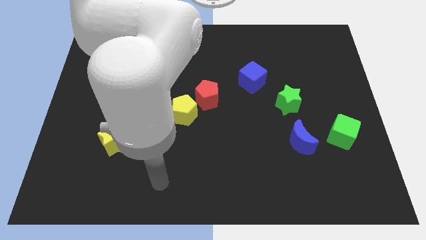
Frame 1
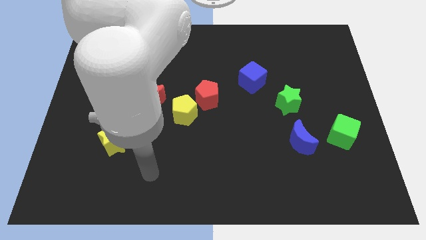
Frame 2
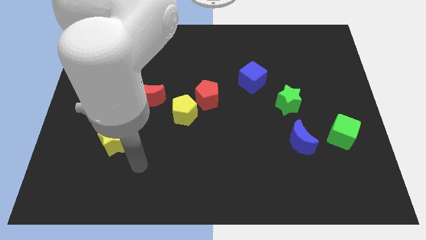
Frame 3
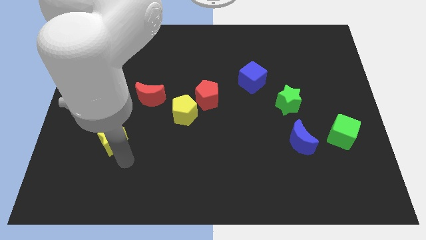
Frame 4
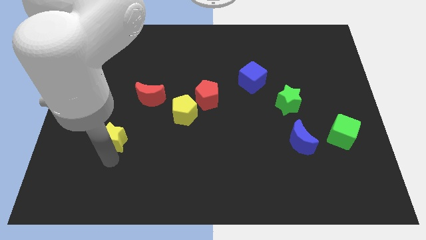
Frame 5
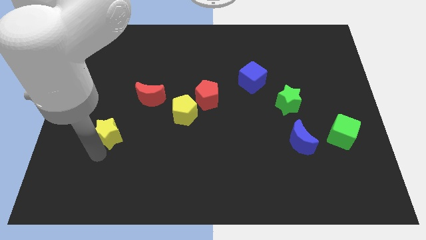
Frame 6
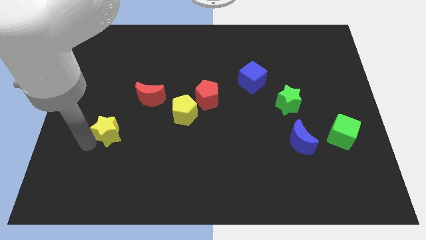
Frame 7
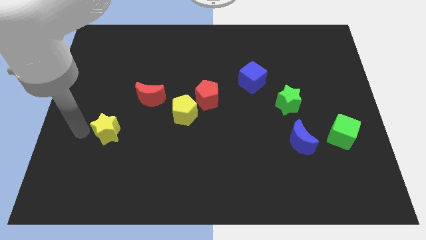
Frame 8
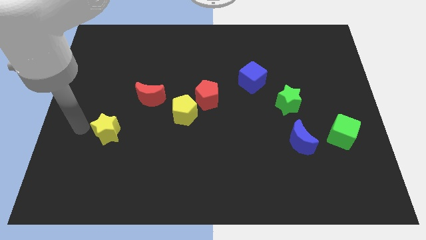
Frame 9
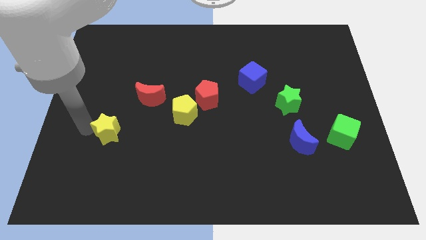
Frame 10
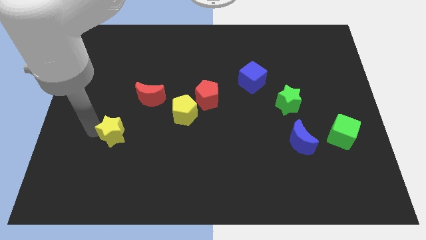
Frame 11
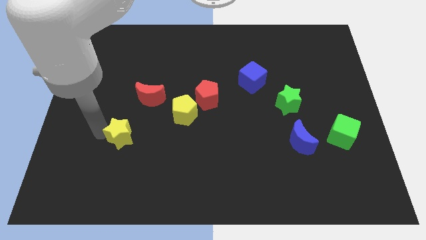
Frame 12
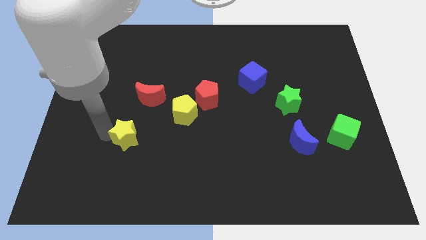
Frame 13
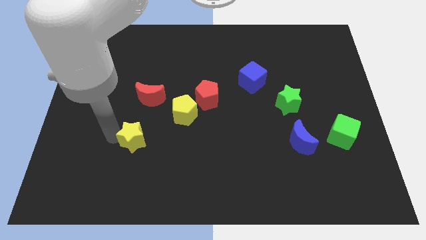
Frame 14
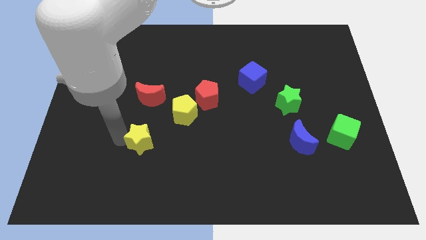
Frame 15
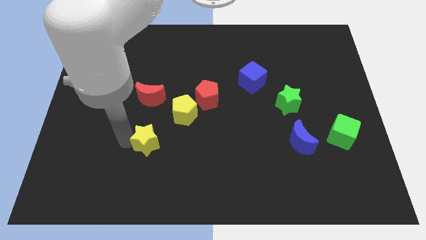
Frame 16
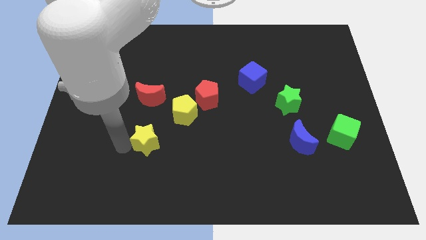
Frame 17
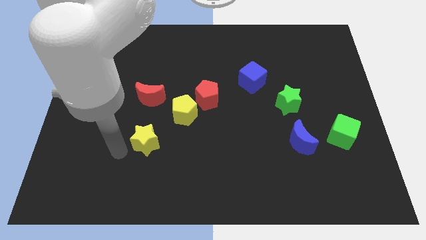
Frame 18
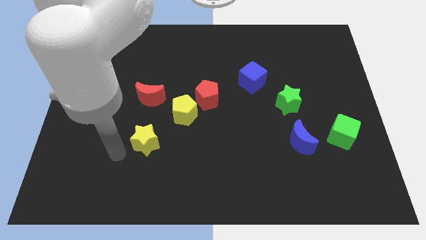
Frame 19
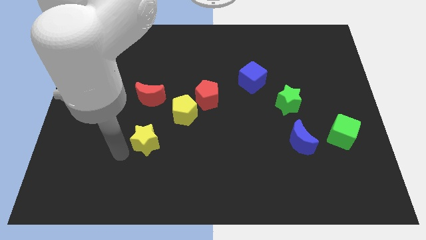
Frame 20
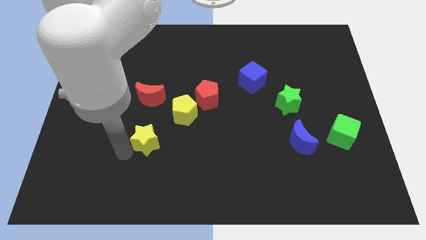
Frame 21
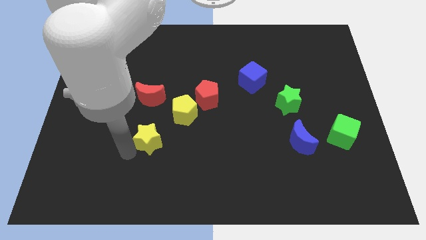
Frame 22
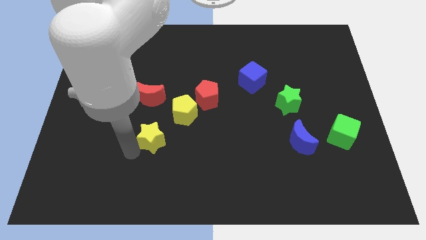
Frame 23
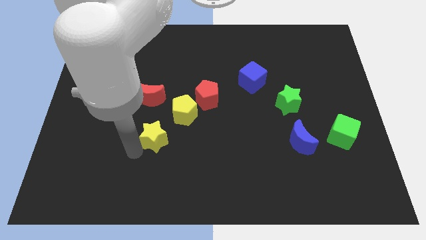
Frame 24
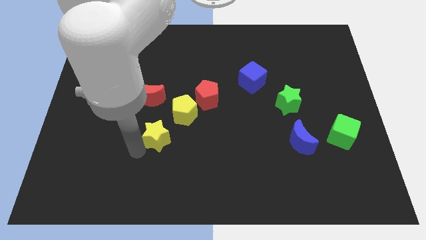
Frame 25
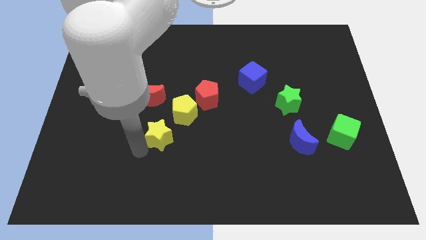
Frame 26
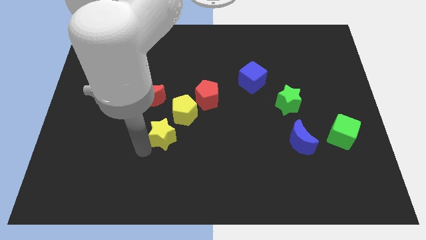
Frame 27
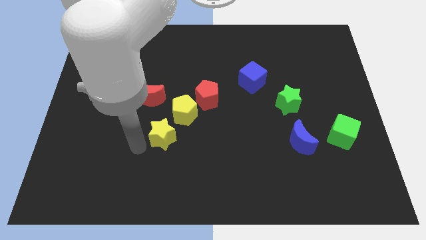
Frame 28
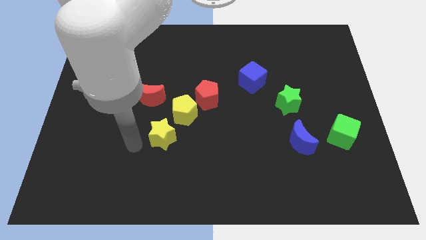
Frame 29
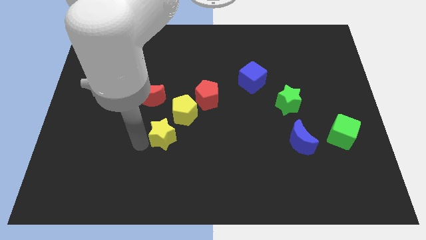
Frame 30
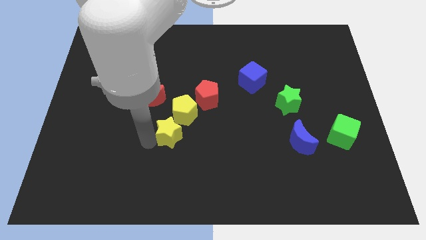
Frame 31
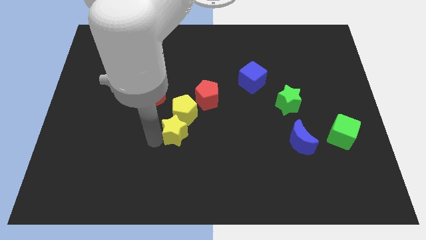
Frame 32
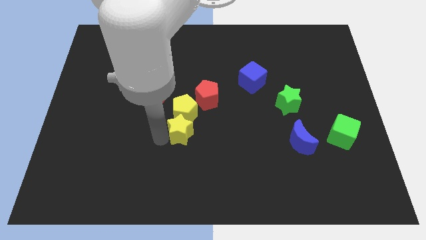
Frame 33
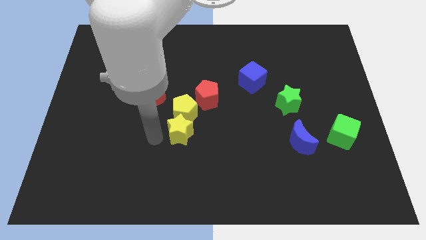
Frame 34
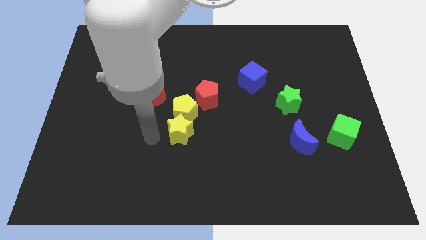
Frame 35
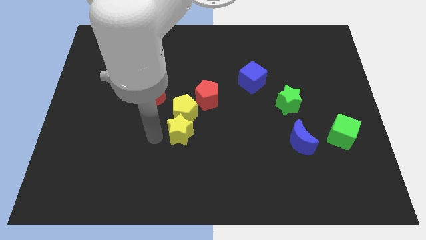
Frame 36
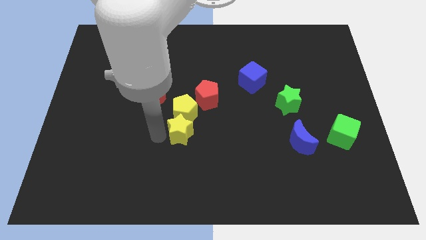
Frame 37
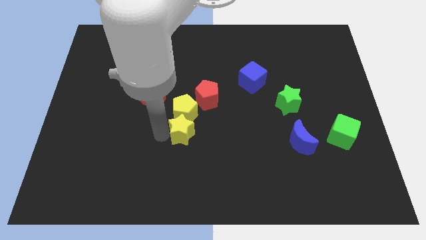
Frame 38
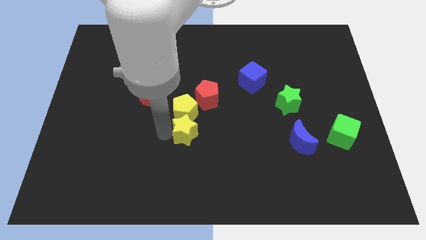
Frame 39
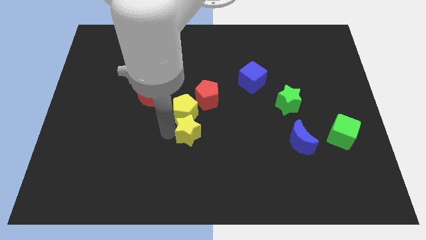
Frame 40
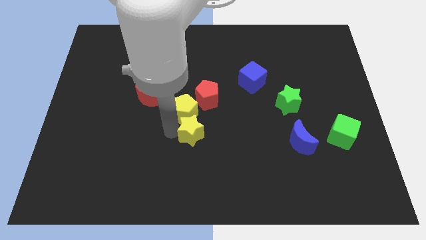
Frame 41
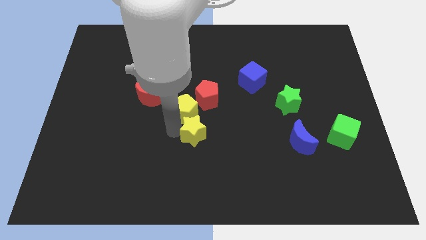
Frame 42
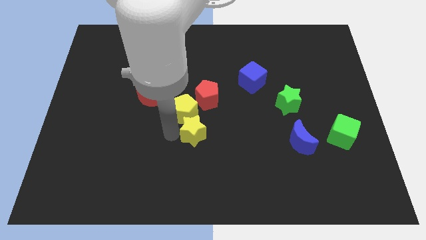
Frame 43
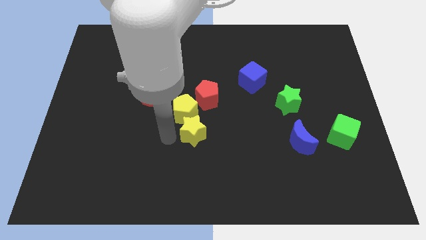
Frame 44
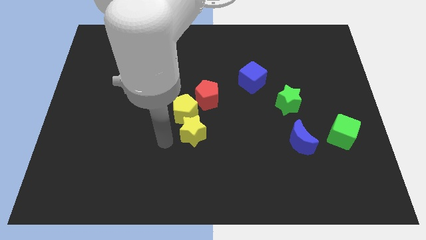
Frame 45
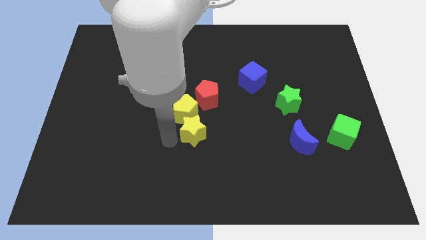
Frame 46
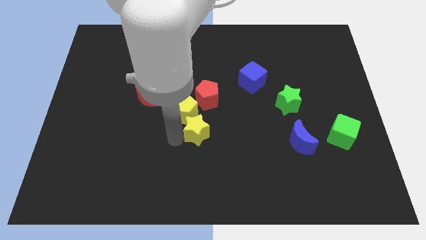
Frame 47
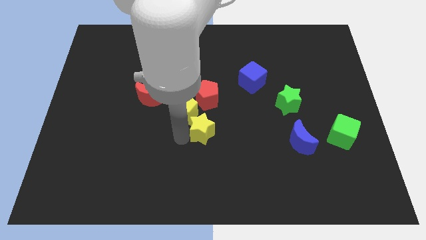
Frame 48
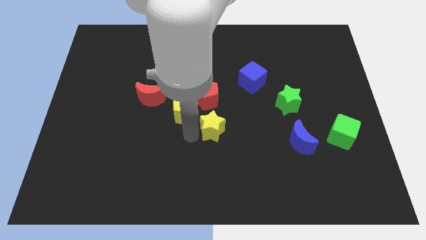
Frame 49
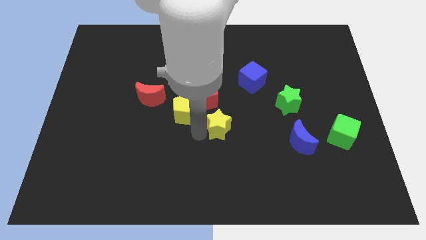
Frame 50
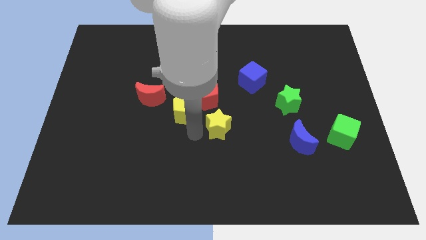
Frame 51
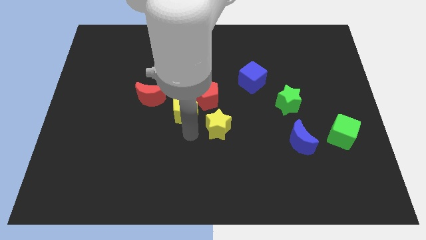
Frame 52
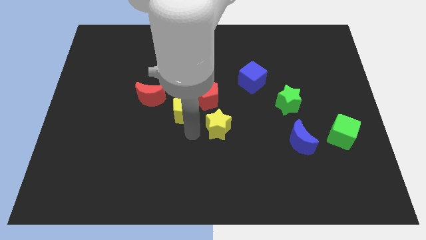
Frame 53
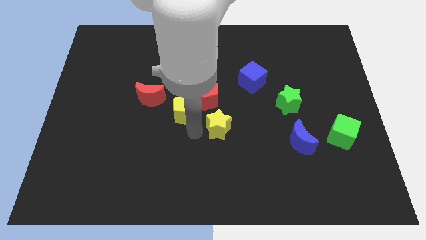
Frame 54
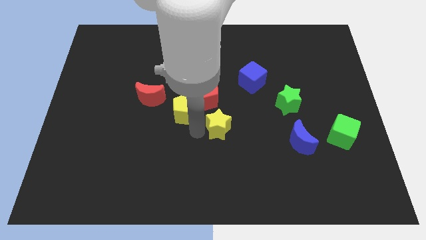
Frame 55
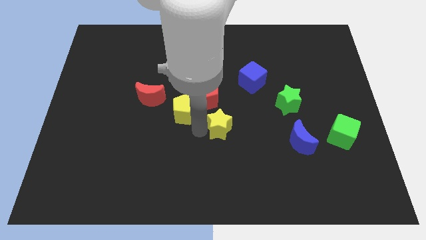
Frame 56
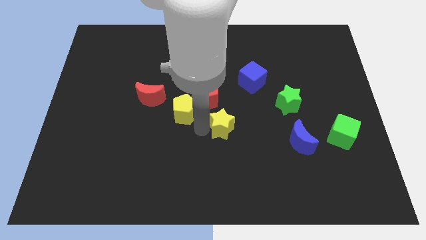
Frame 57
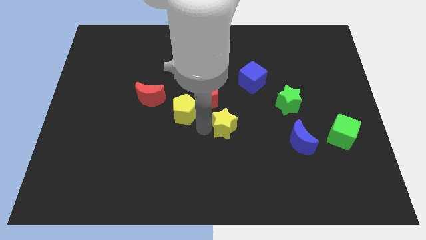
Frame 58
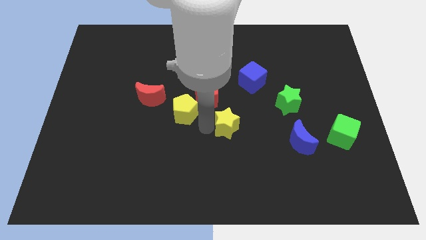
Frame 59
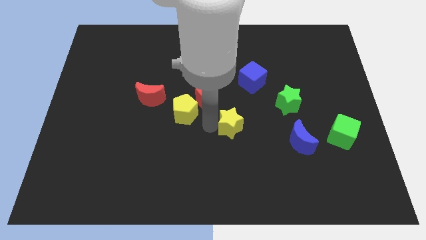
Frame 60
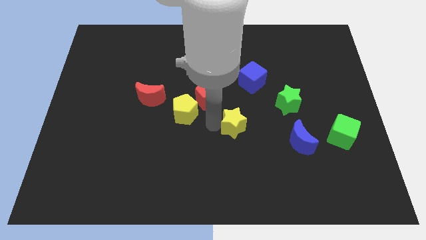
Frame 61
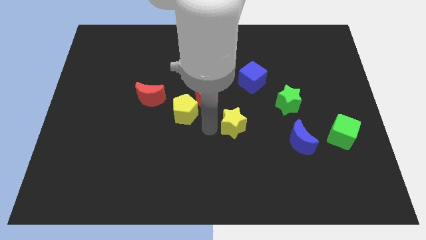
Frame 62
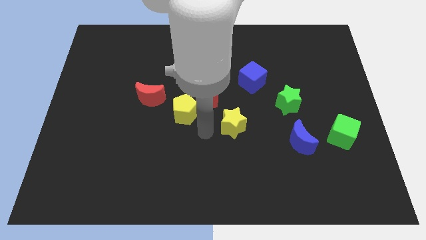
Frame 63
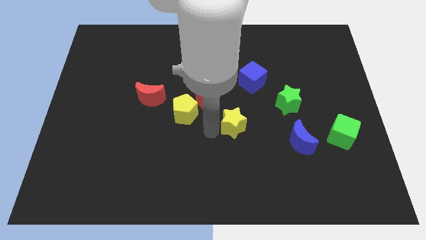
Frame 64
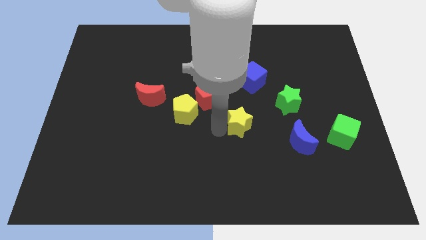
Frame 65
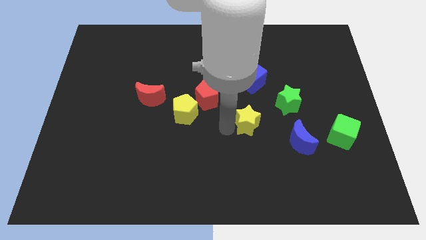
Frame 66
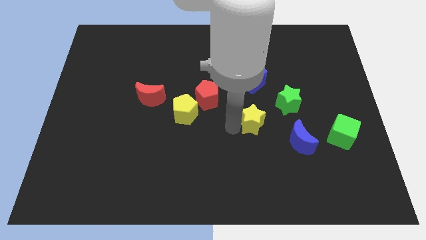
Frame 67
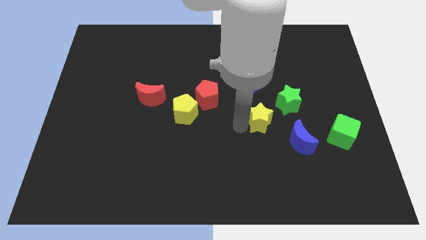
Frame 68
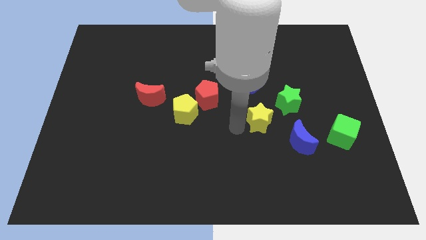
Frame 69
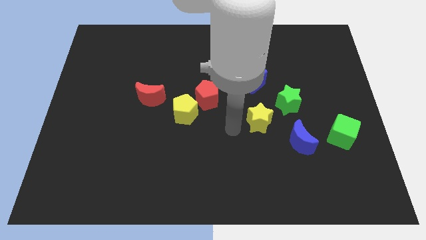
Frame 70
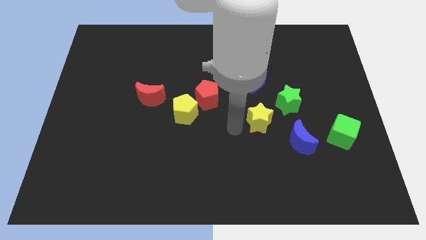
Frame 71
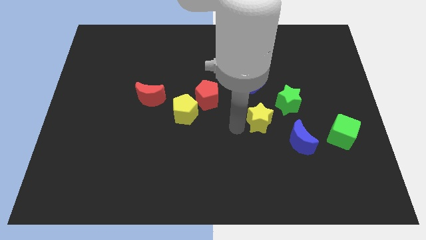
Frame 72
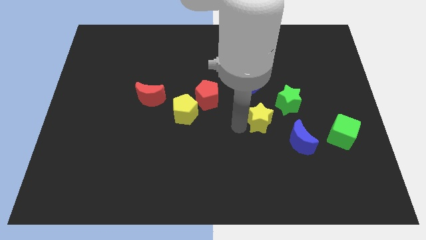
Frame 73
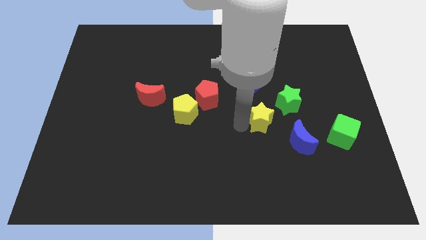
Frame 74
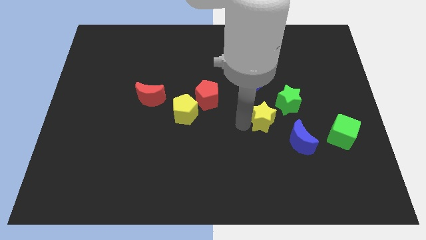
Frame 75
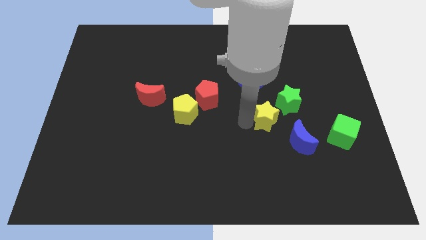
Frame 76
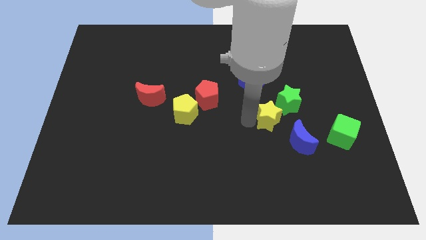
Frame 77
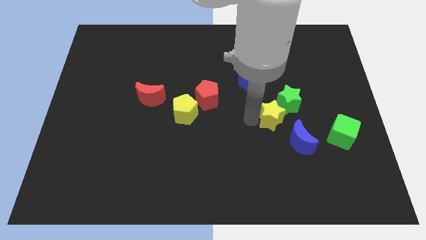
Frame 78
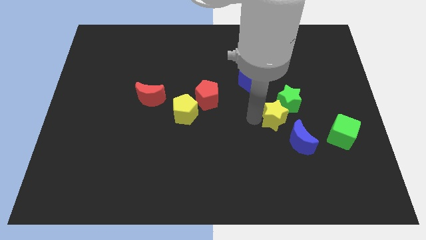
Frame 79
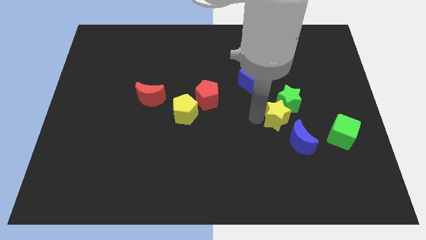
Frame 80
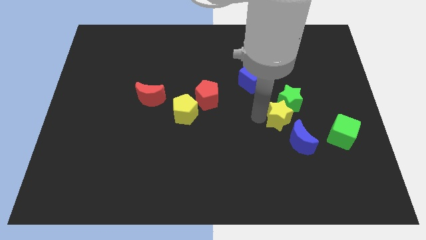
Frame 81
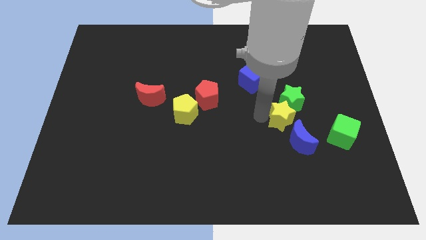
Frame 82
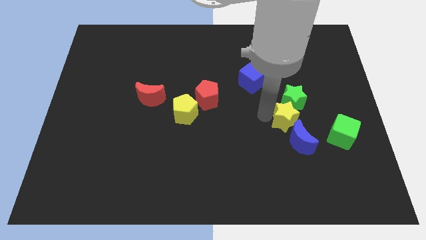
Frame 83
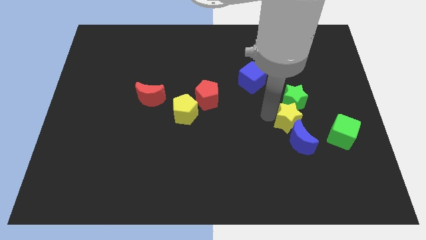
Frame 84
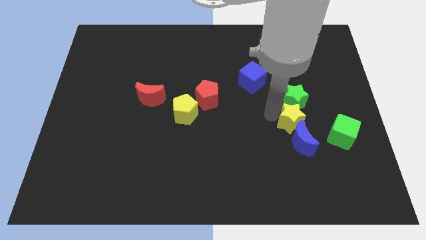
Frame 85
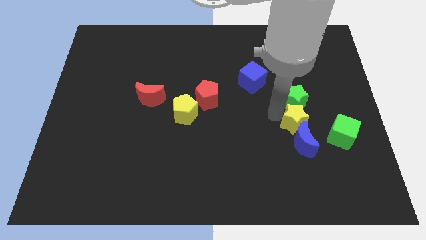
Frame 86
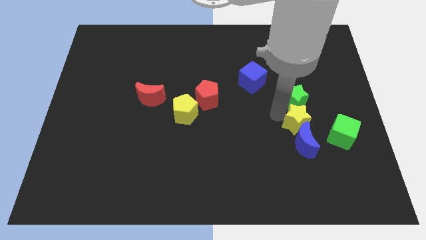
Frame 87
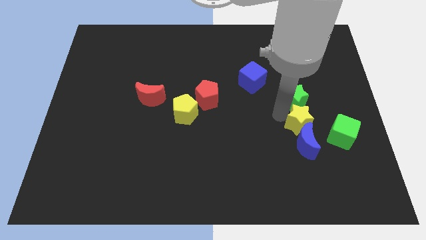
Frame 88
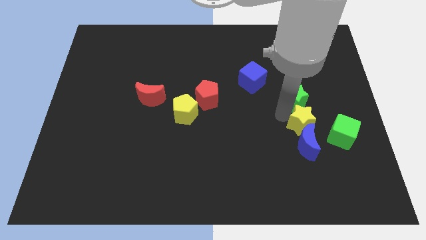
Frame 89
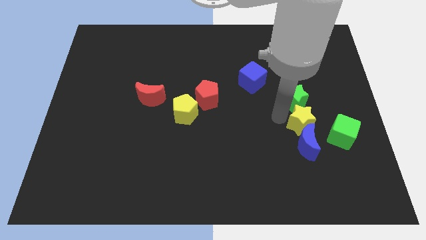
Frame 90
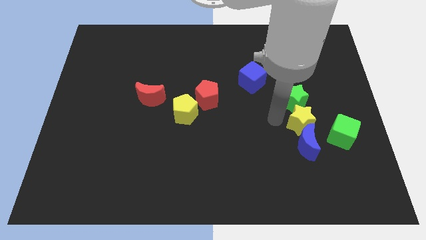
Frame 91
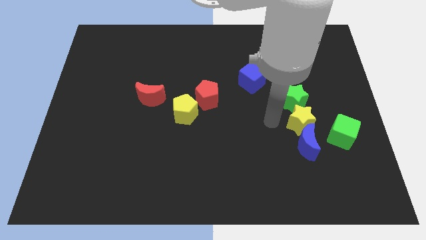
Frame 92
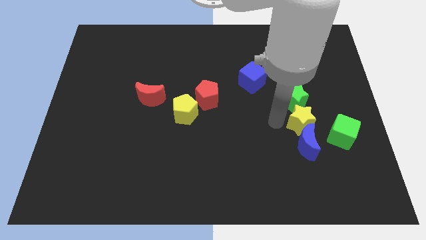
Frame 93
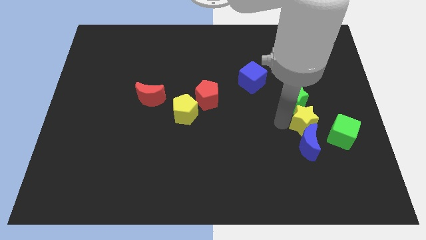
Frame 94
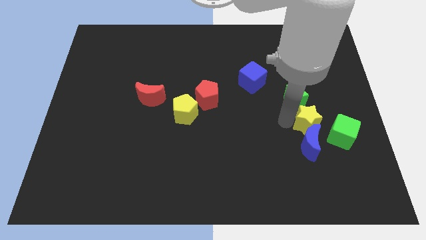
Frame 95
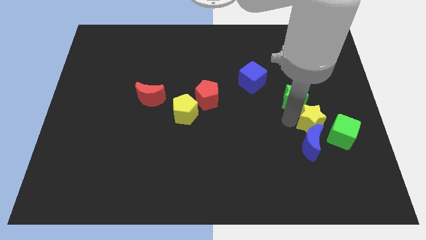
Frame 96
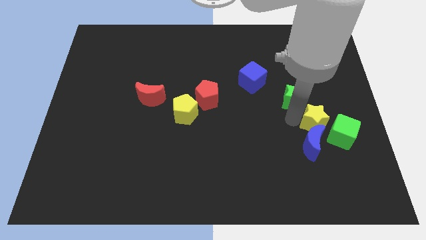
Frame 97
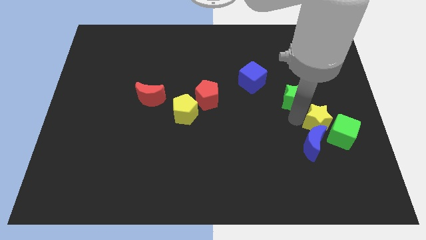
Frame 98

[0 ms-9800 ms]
slide the yellow star towards the green cube
